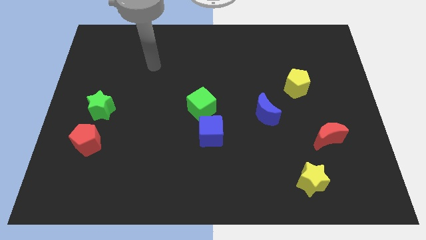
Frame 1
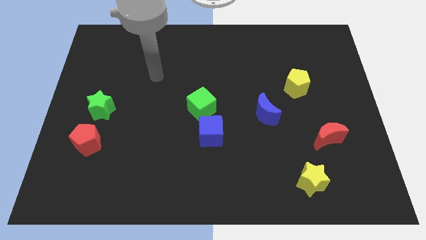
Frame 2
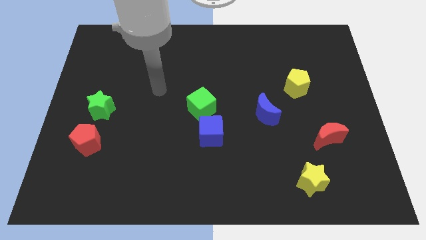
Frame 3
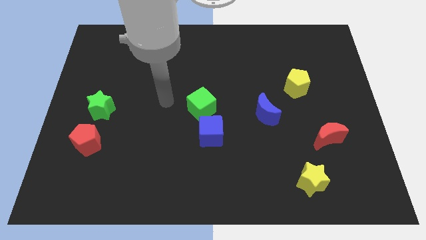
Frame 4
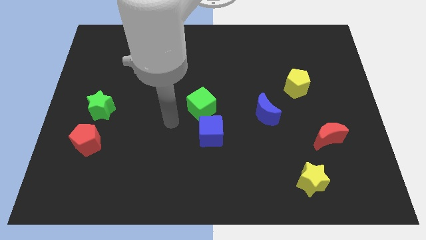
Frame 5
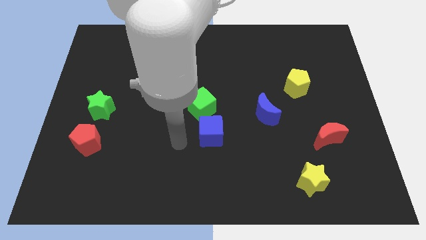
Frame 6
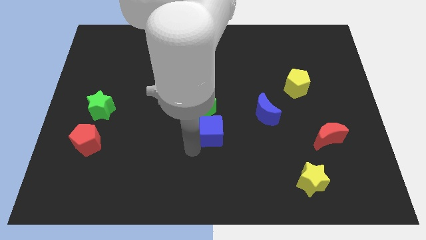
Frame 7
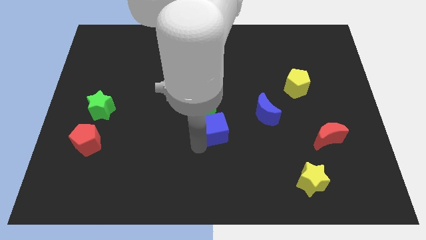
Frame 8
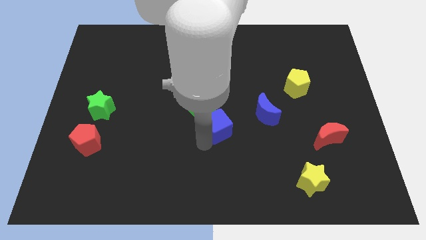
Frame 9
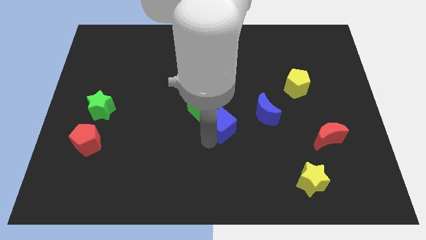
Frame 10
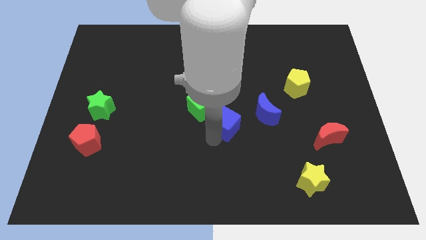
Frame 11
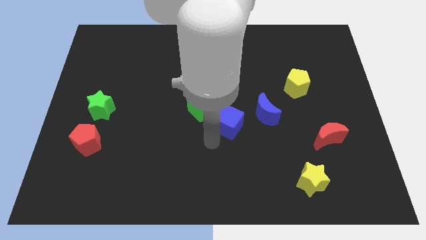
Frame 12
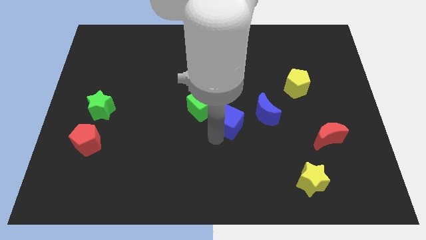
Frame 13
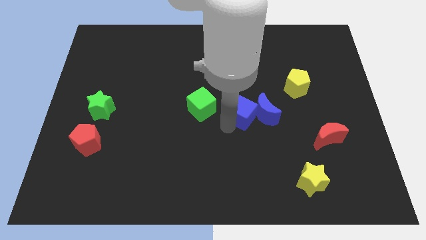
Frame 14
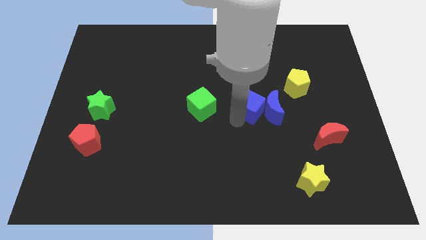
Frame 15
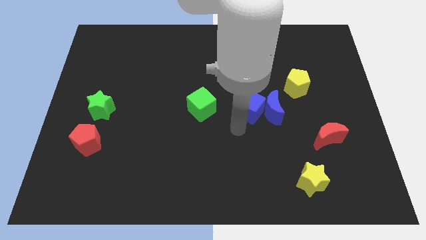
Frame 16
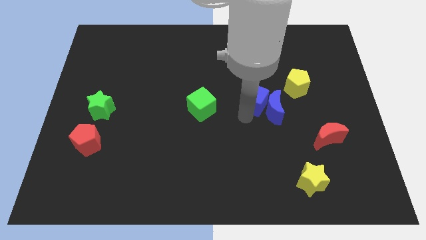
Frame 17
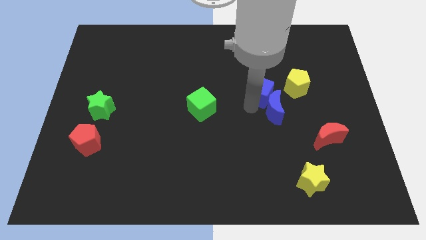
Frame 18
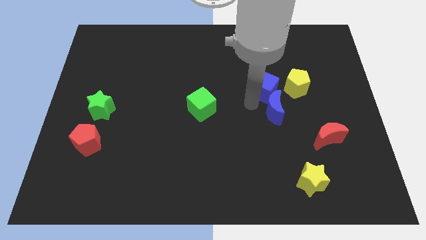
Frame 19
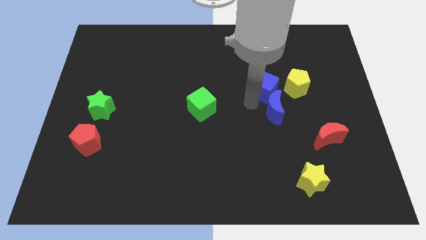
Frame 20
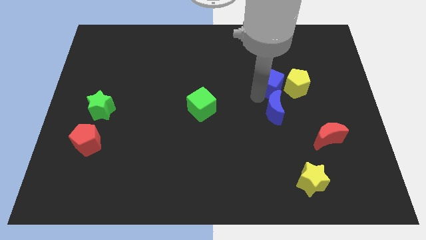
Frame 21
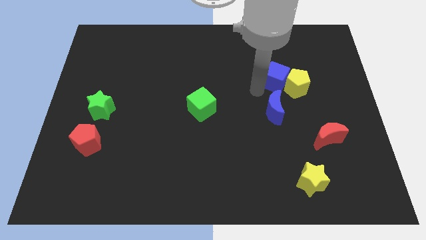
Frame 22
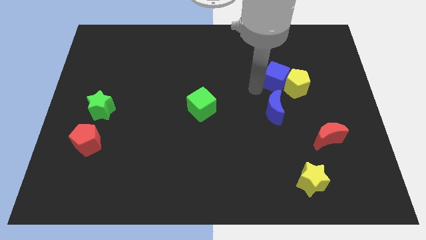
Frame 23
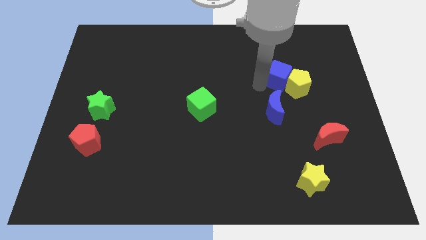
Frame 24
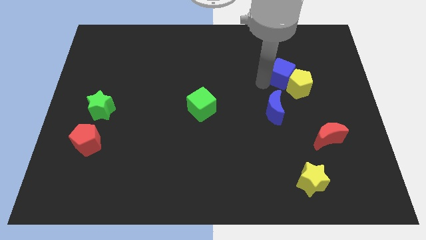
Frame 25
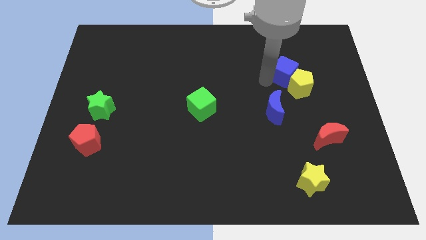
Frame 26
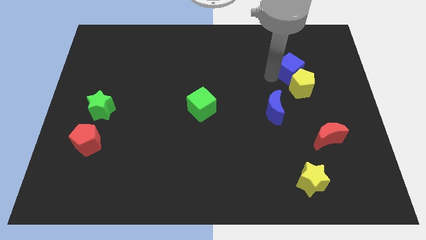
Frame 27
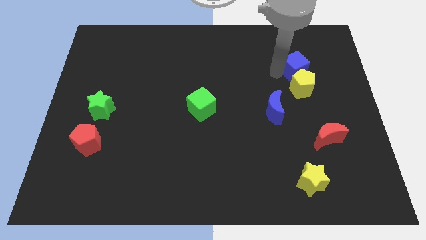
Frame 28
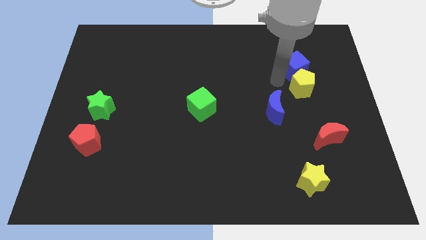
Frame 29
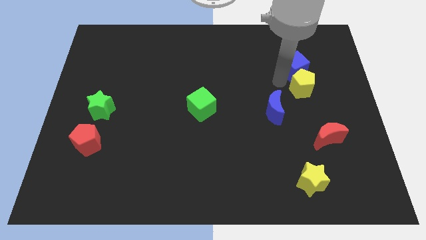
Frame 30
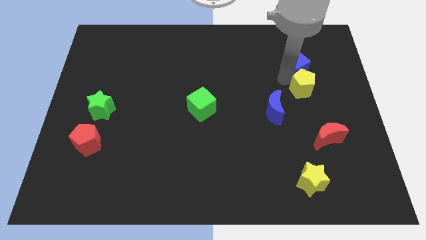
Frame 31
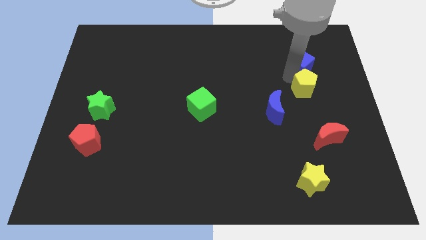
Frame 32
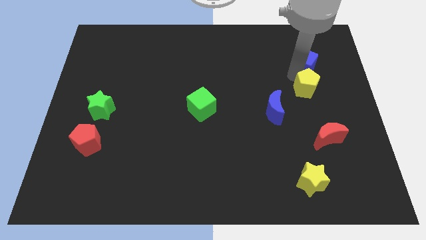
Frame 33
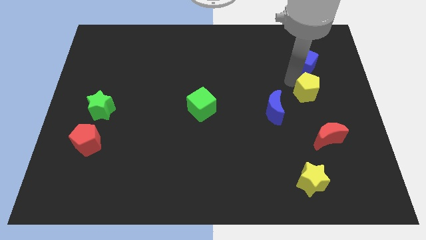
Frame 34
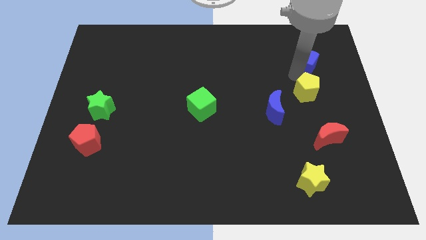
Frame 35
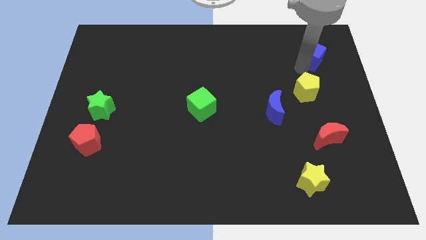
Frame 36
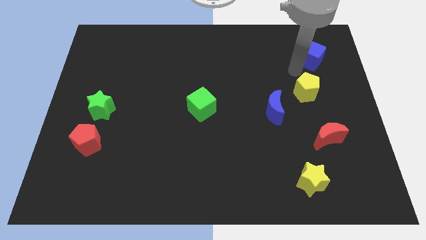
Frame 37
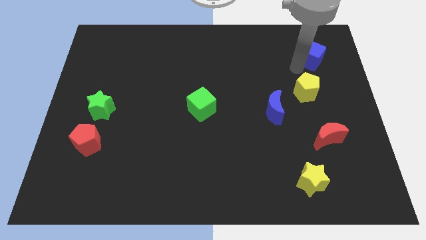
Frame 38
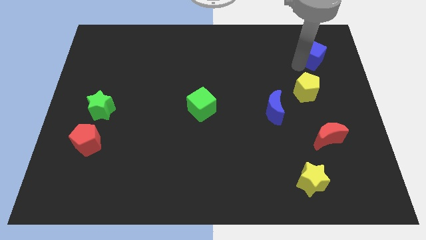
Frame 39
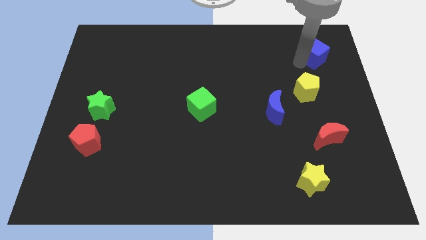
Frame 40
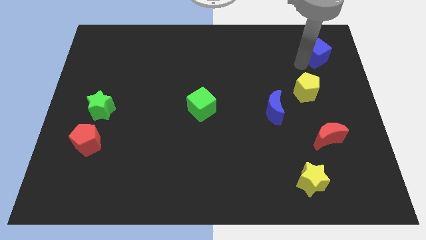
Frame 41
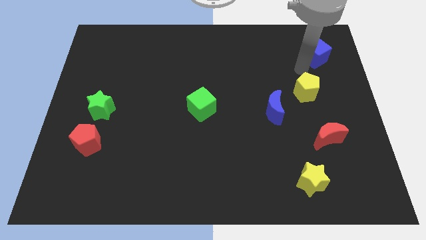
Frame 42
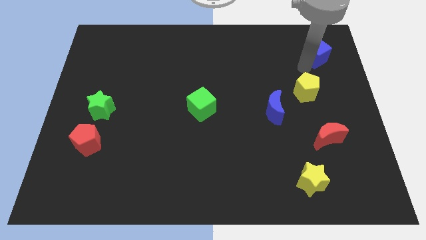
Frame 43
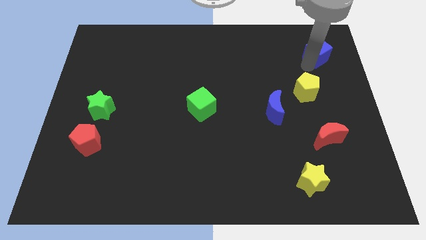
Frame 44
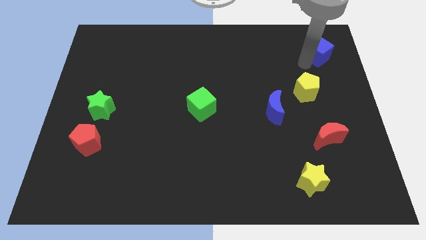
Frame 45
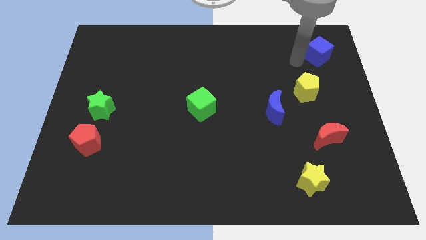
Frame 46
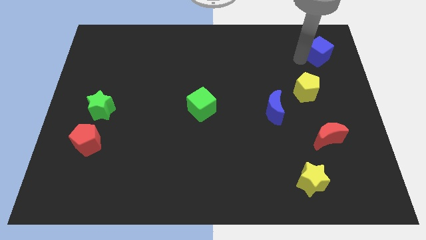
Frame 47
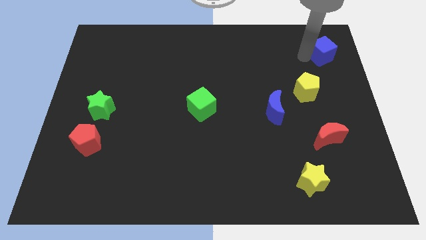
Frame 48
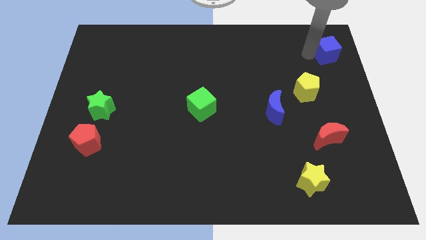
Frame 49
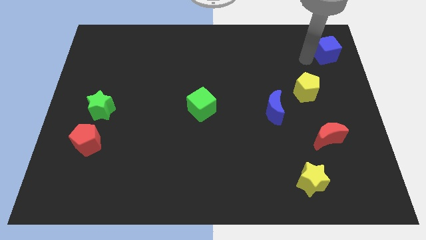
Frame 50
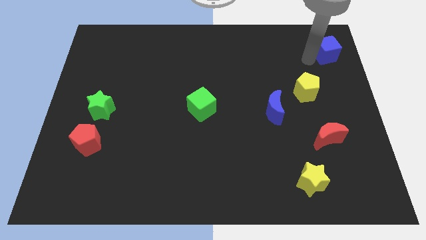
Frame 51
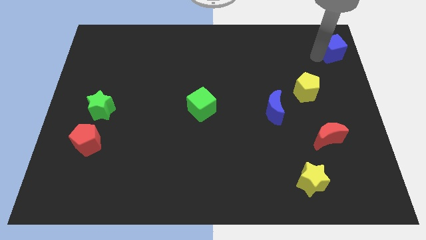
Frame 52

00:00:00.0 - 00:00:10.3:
slide the blue cube to the top right corner
